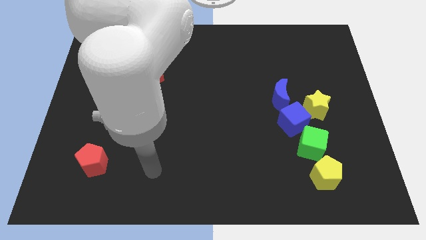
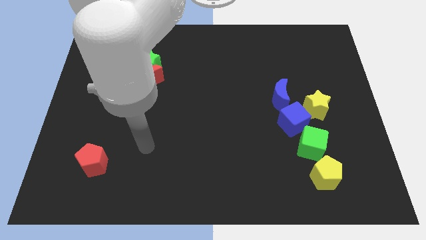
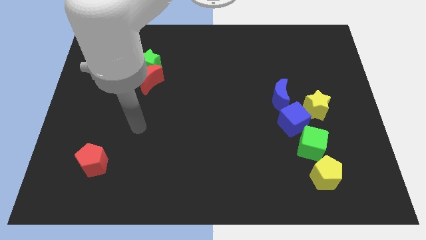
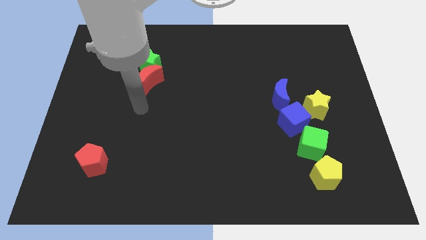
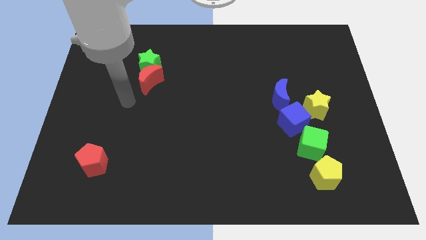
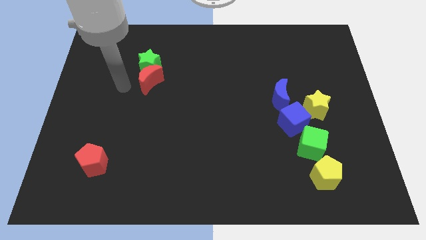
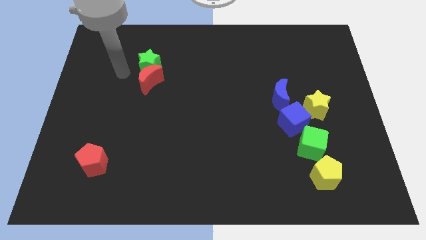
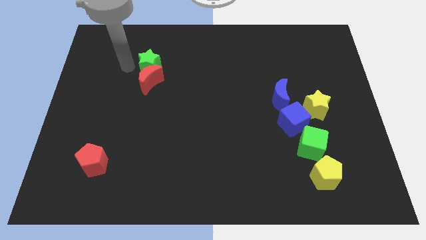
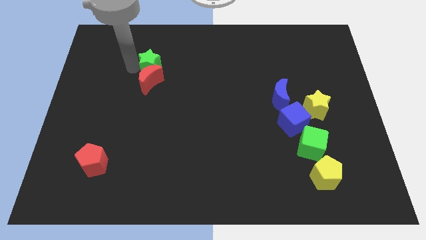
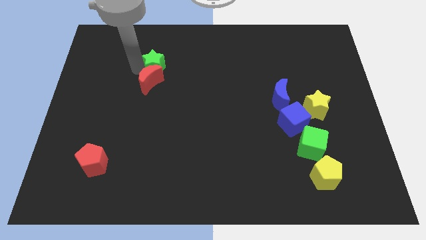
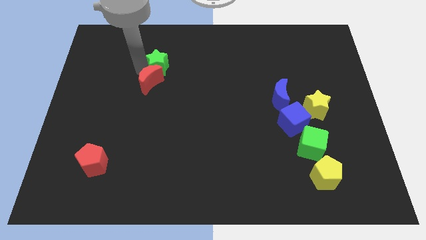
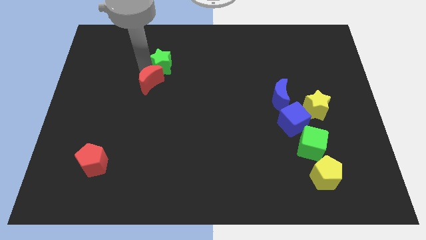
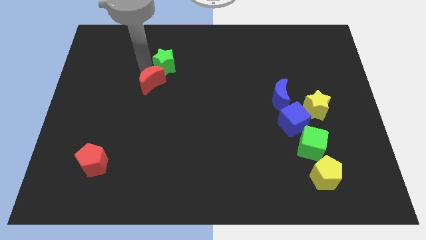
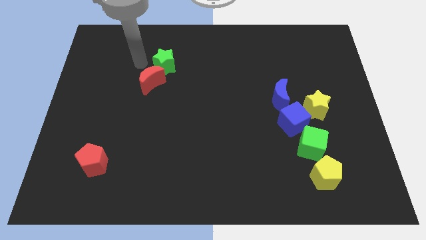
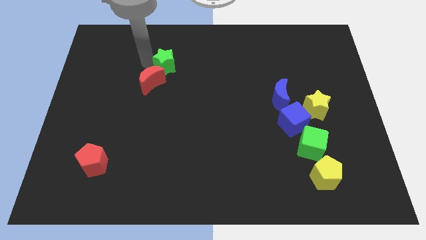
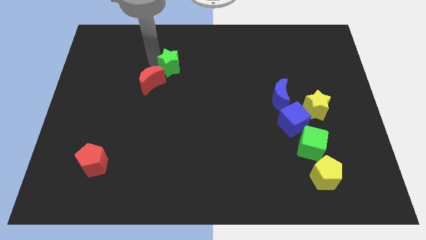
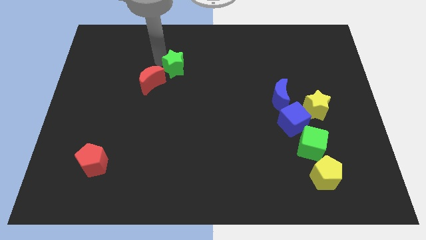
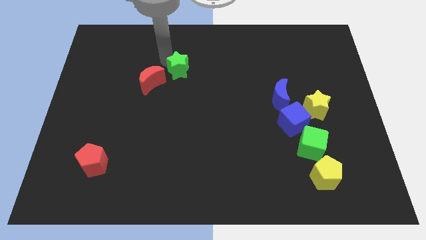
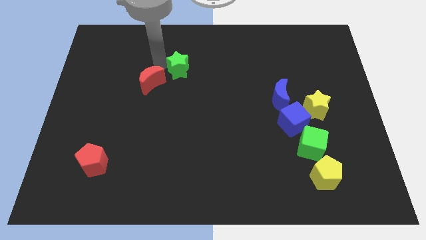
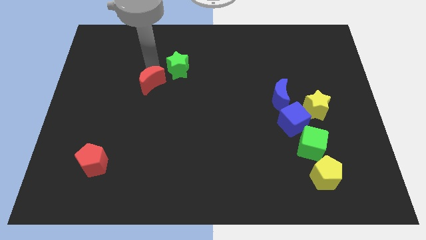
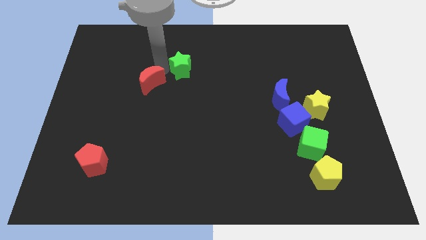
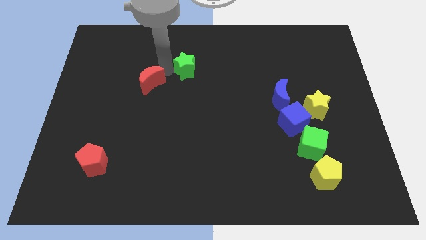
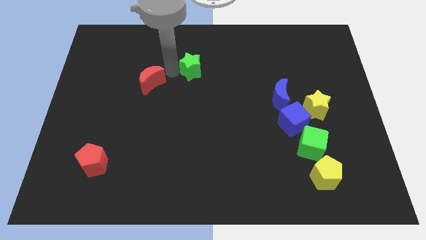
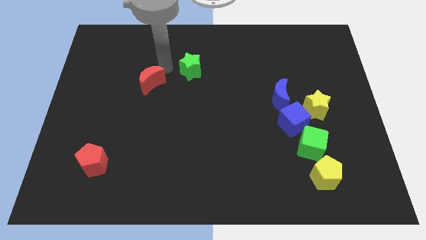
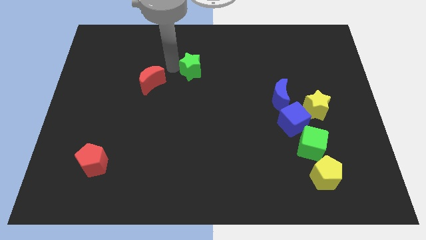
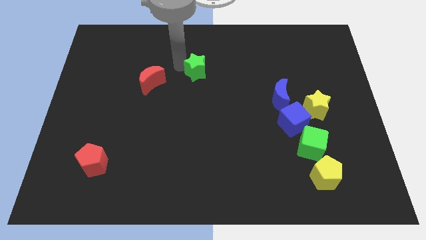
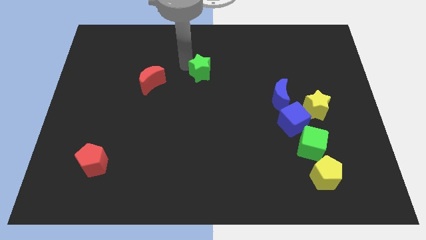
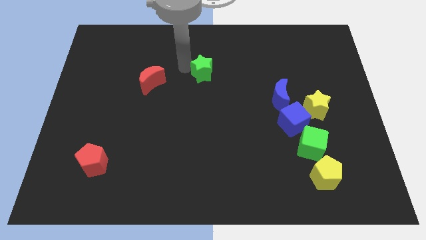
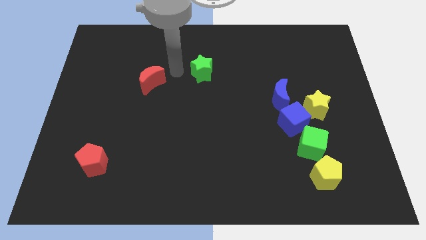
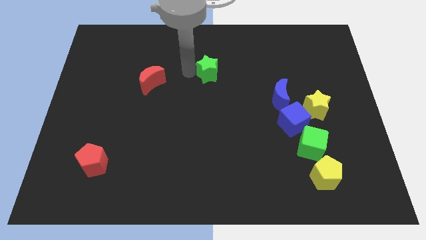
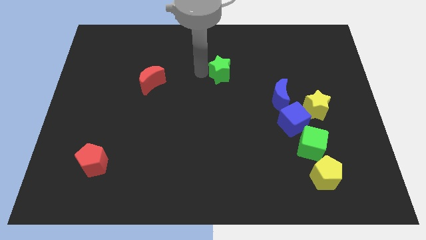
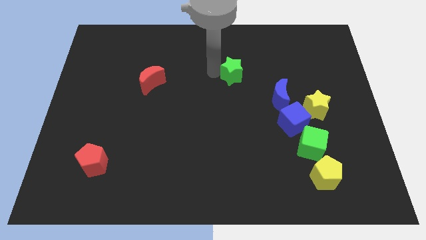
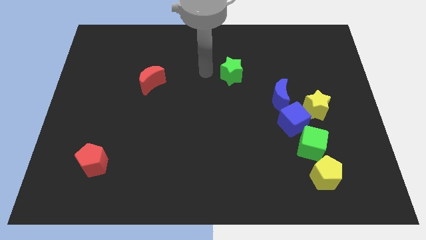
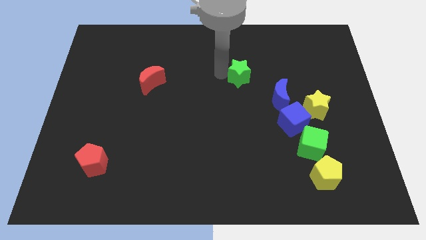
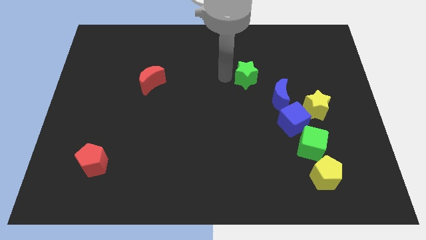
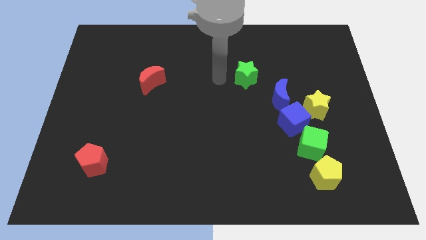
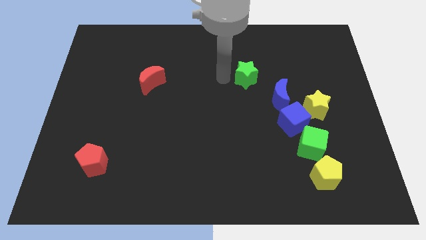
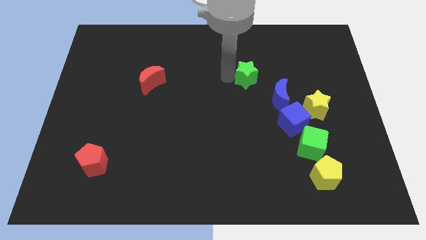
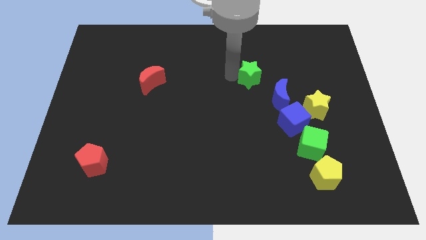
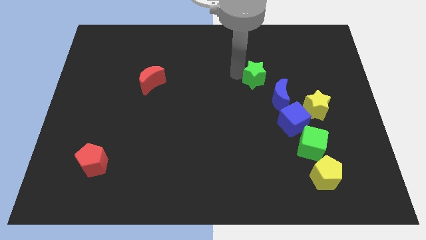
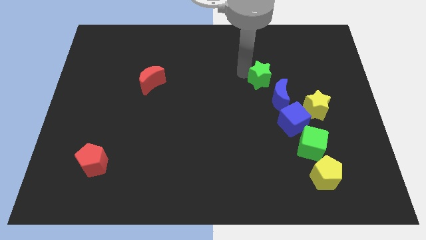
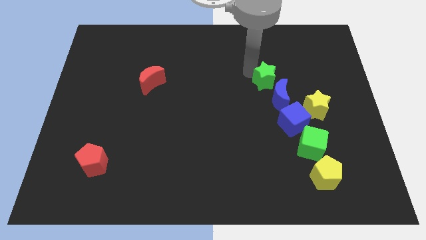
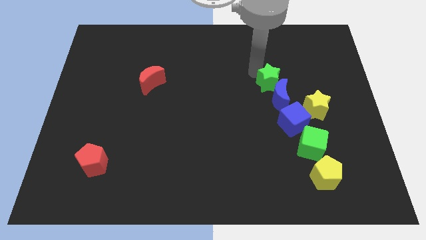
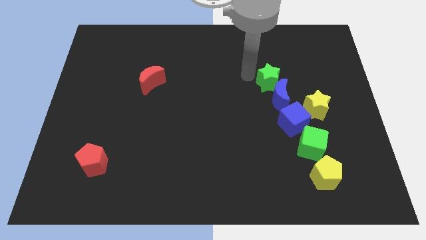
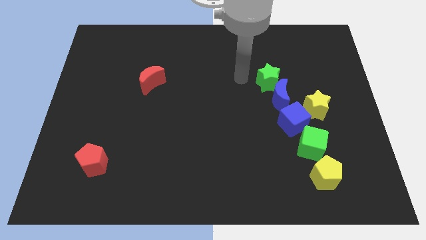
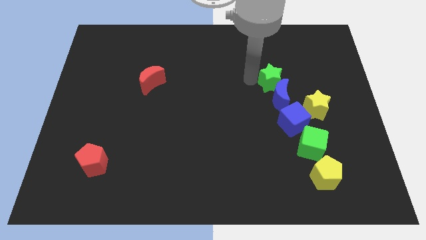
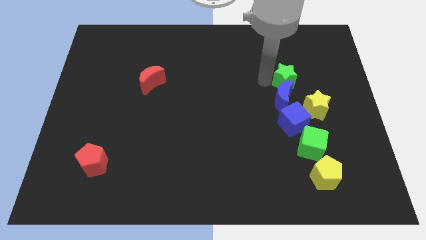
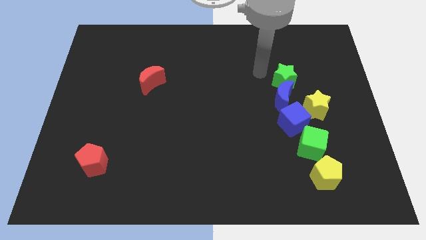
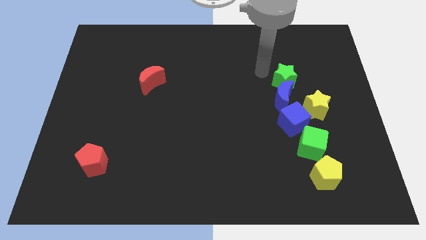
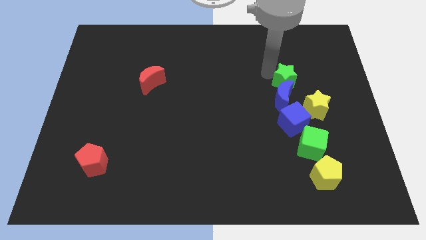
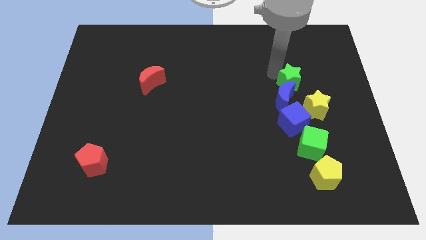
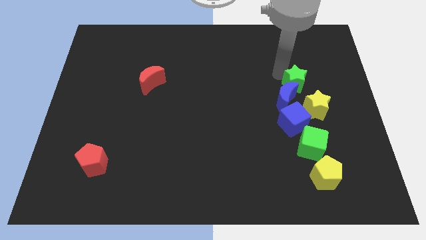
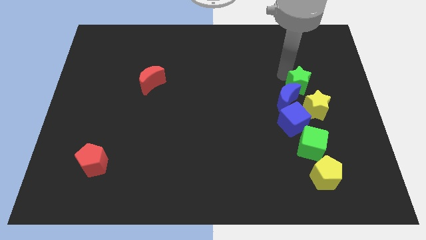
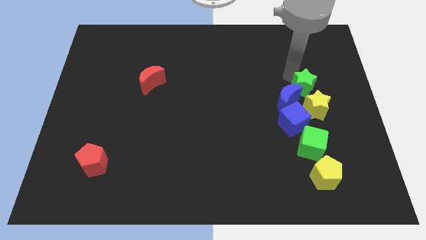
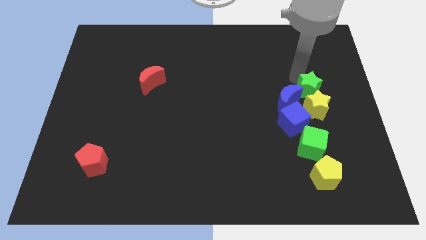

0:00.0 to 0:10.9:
slide the green star to the yellow star

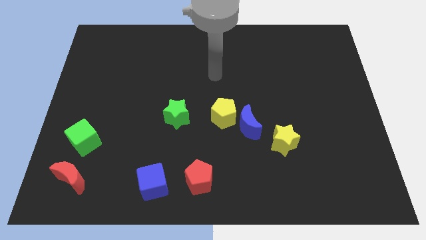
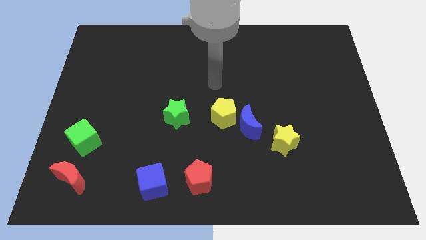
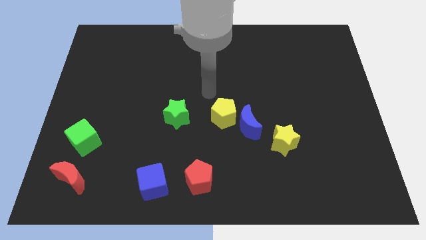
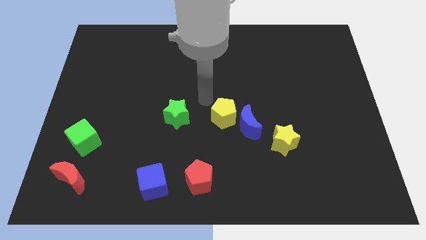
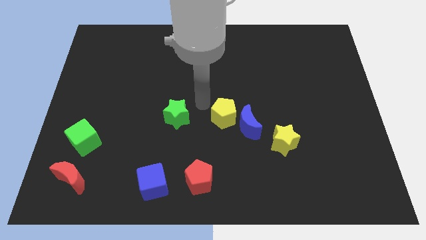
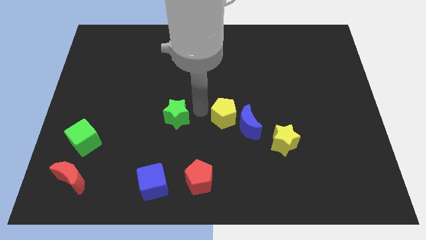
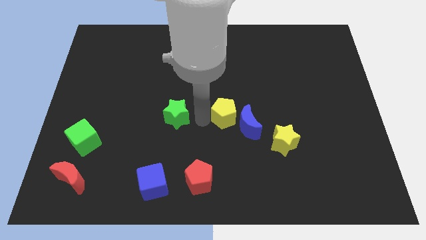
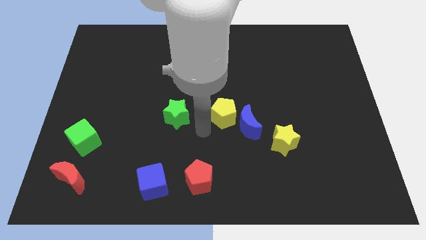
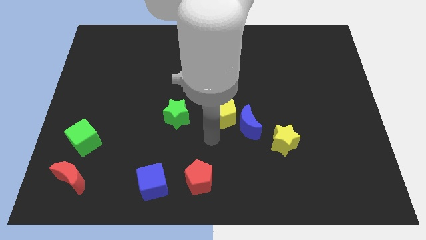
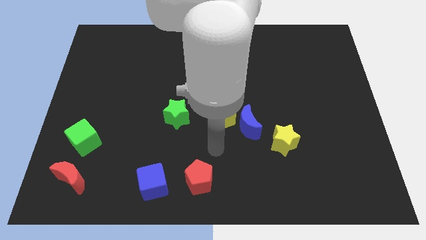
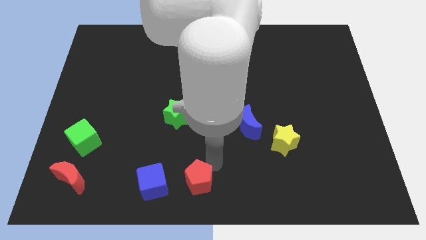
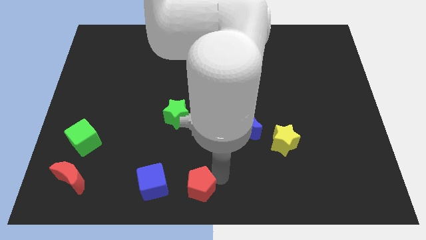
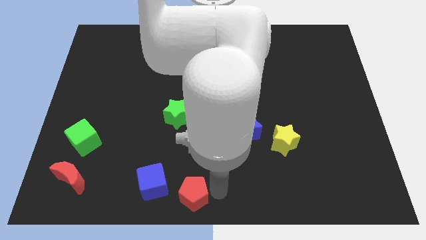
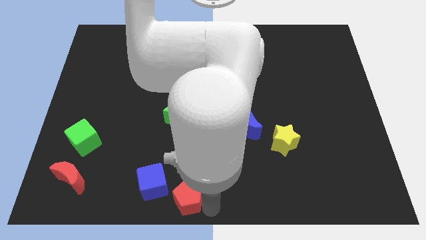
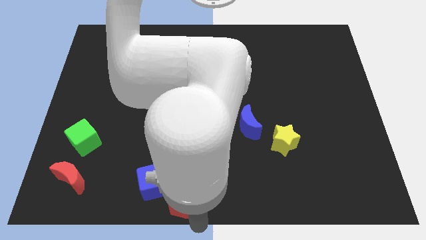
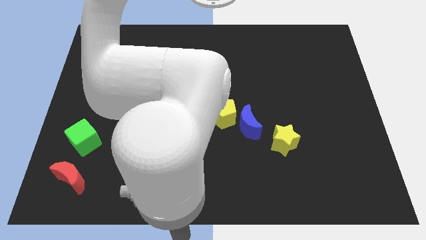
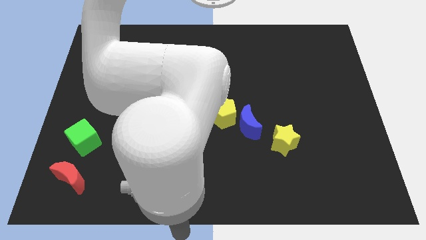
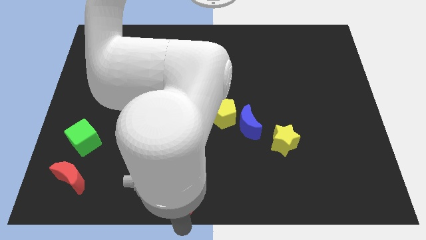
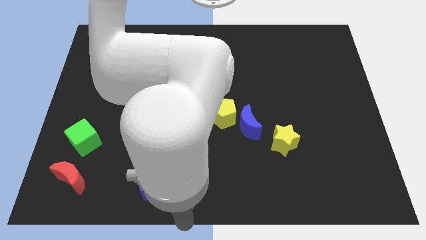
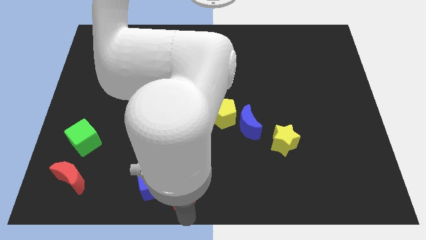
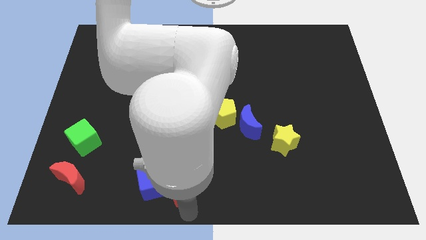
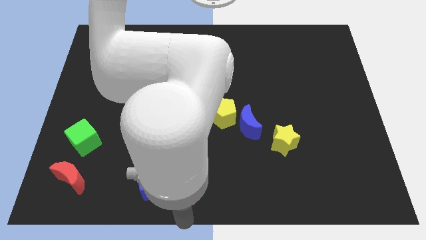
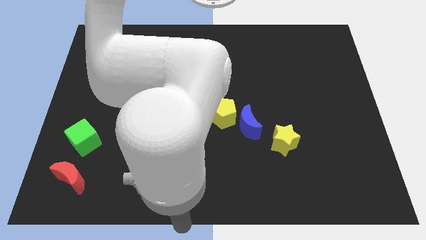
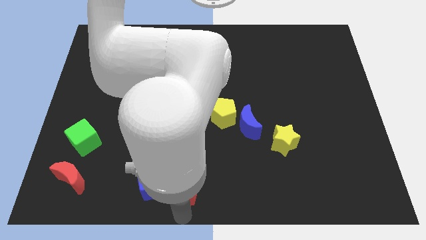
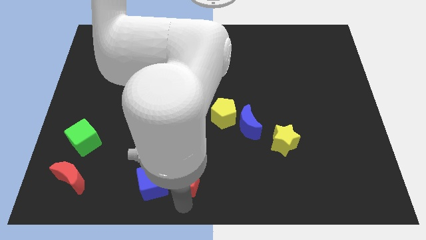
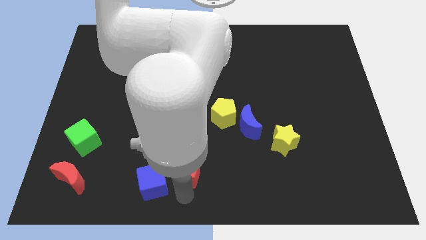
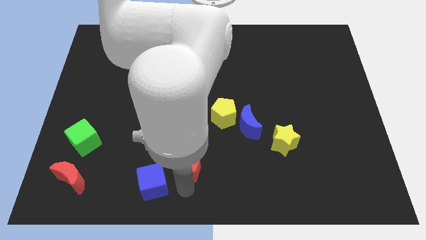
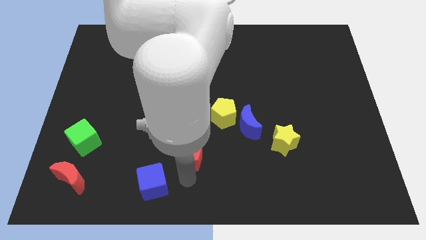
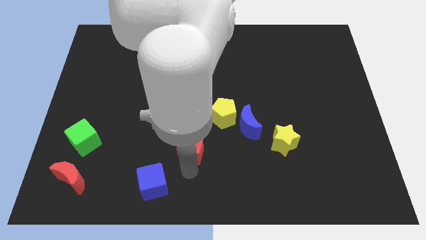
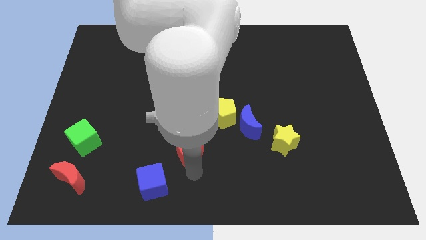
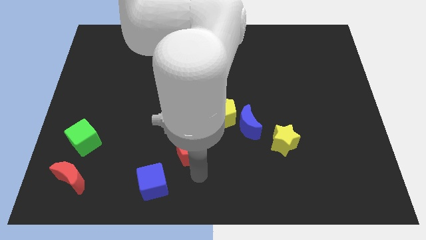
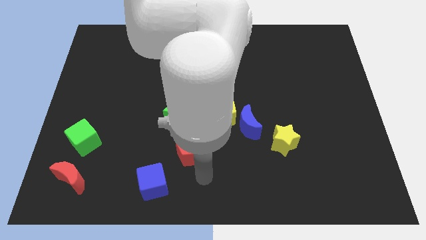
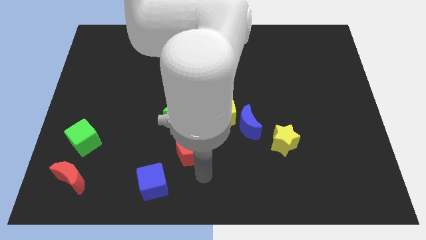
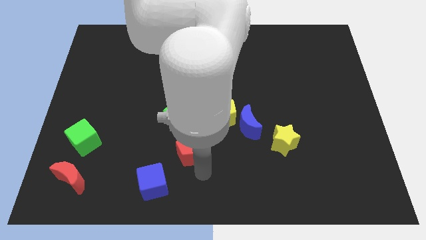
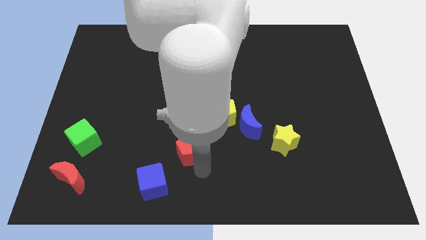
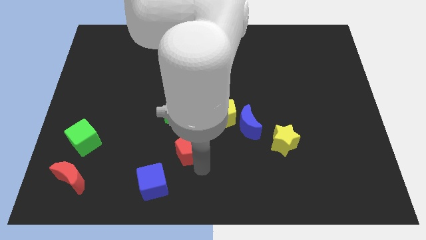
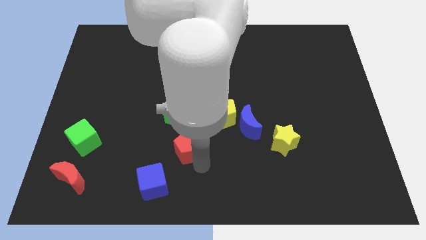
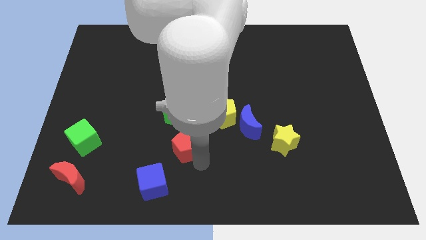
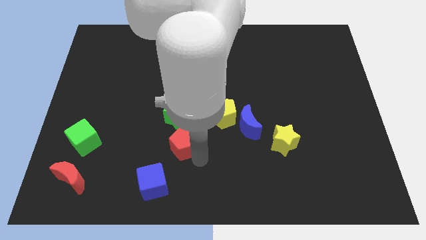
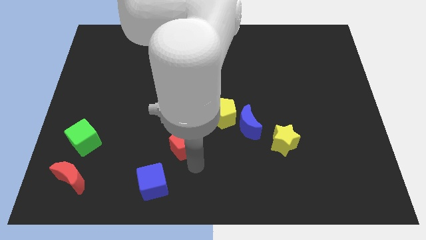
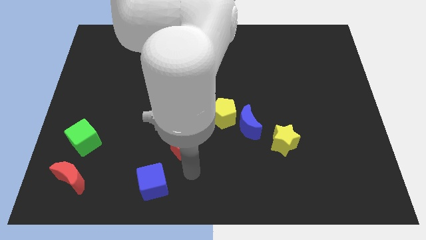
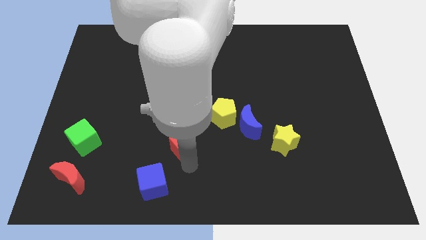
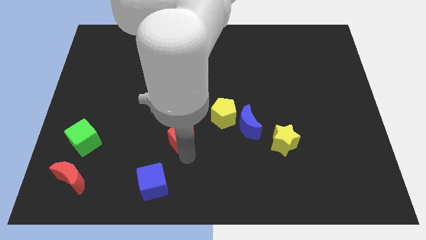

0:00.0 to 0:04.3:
move the red pentagon close to the green star
